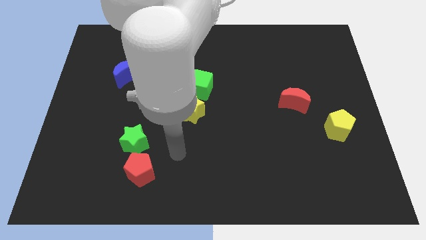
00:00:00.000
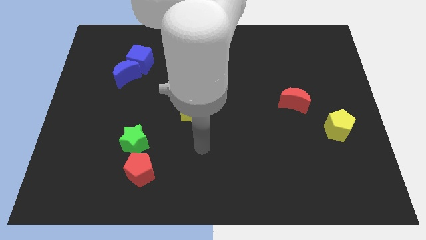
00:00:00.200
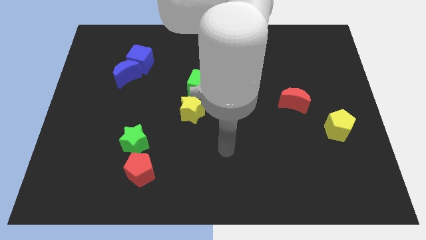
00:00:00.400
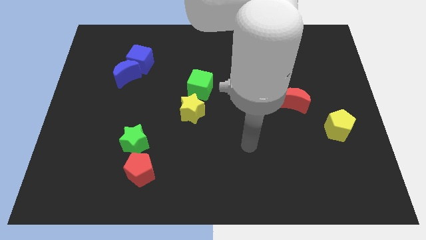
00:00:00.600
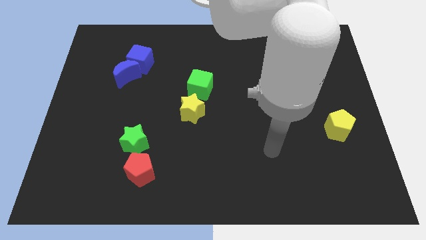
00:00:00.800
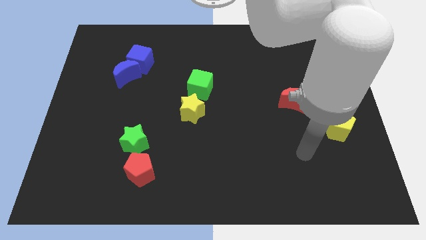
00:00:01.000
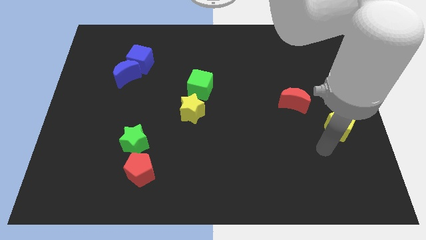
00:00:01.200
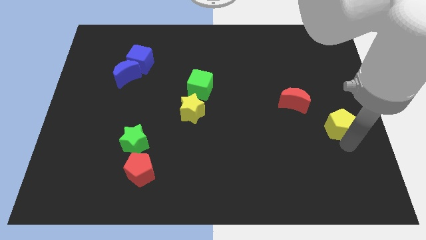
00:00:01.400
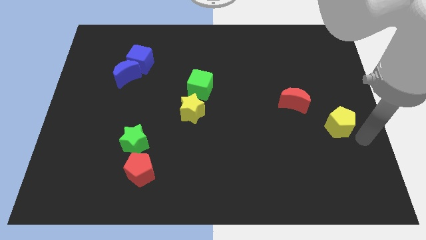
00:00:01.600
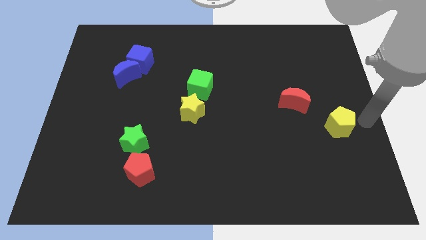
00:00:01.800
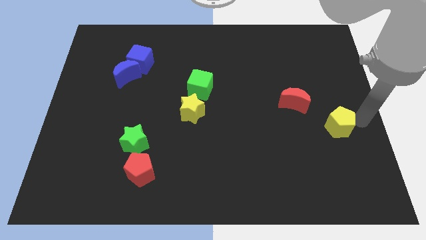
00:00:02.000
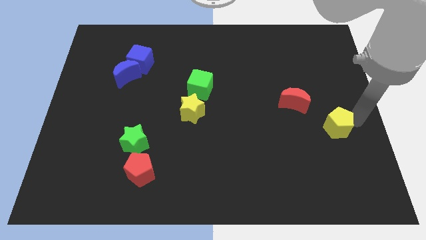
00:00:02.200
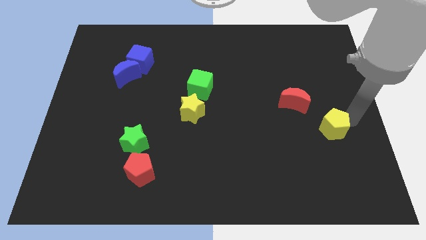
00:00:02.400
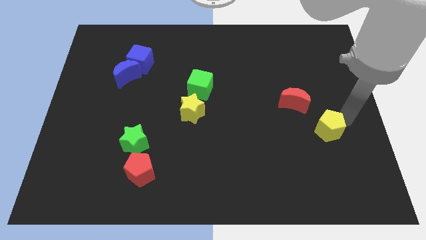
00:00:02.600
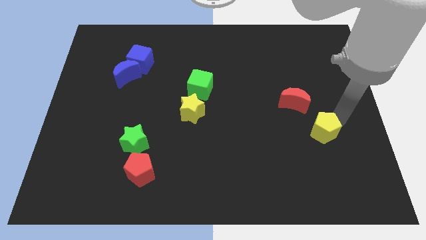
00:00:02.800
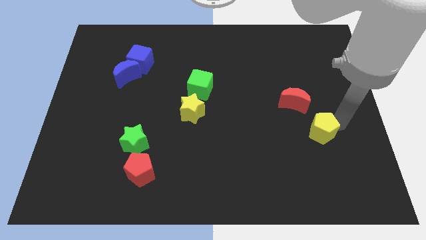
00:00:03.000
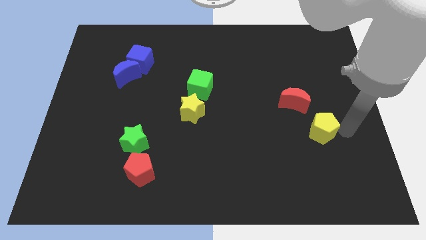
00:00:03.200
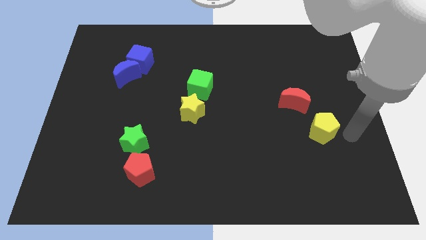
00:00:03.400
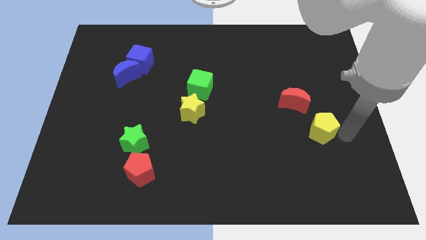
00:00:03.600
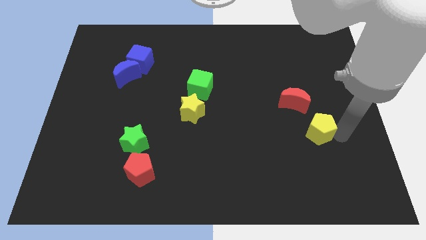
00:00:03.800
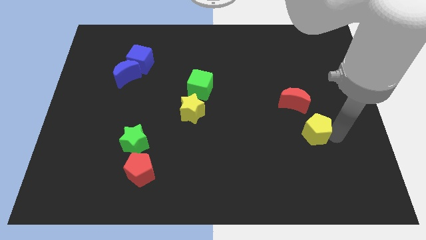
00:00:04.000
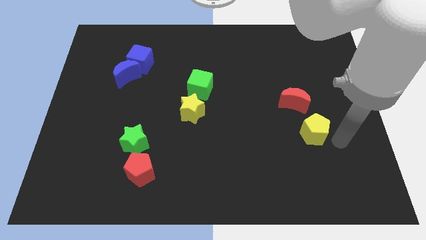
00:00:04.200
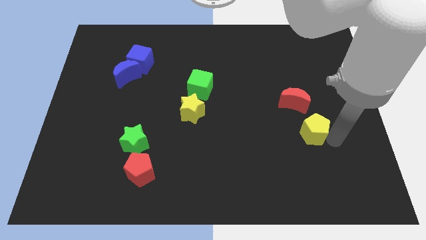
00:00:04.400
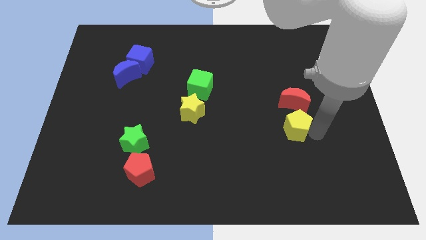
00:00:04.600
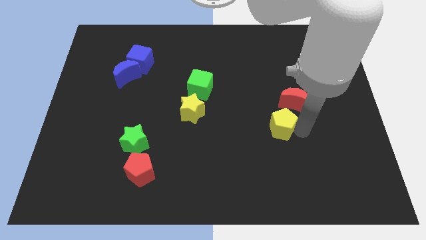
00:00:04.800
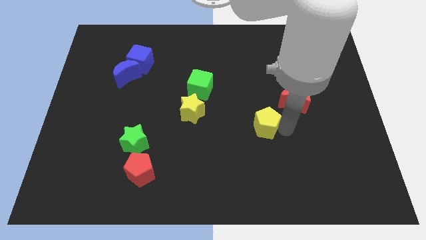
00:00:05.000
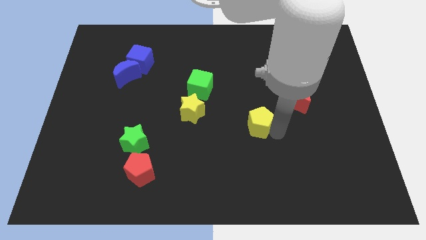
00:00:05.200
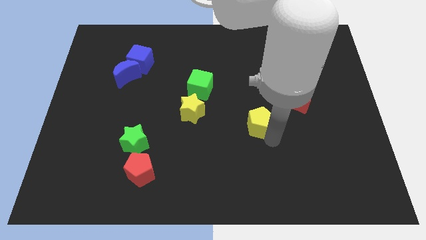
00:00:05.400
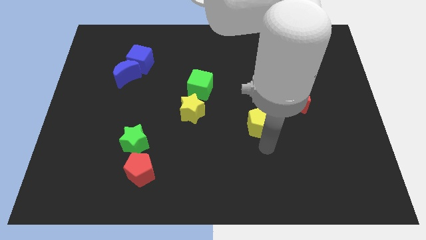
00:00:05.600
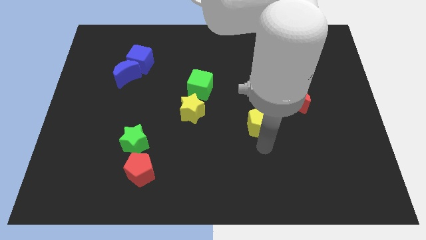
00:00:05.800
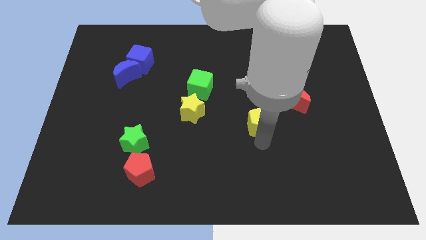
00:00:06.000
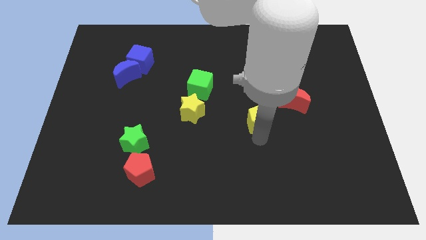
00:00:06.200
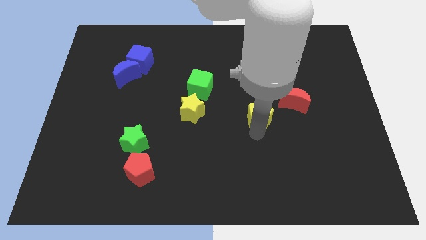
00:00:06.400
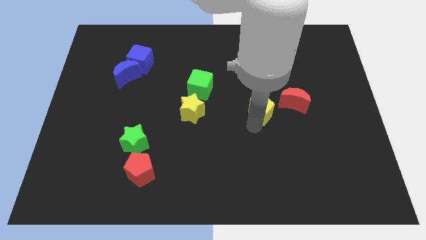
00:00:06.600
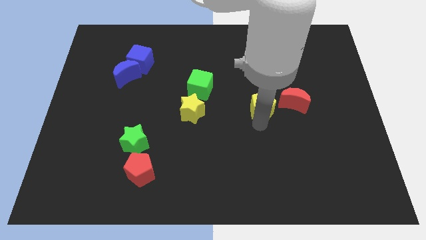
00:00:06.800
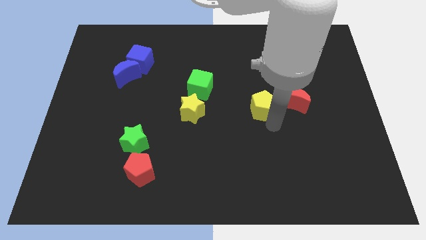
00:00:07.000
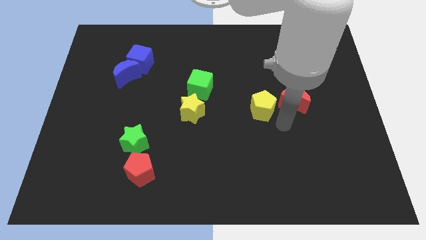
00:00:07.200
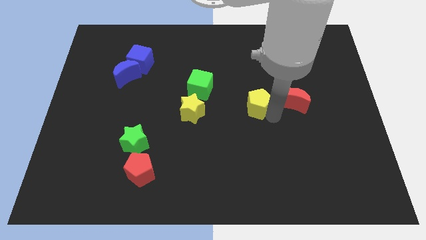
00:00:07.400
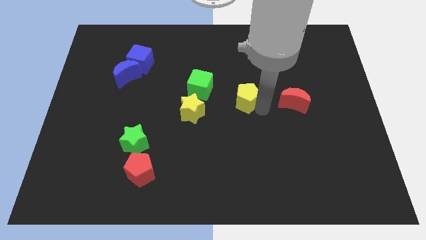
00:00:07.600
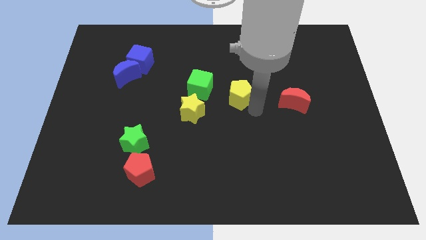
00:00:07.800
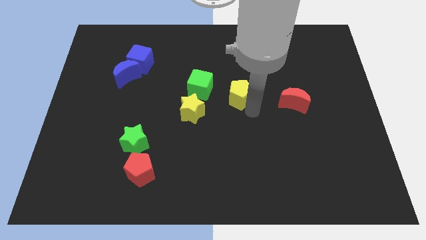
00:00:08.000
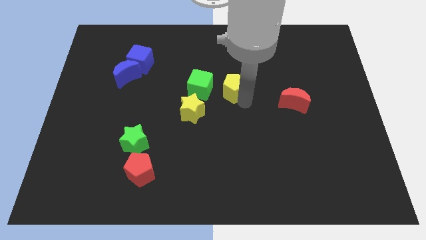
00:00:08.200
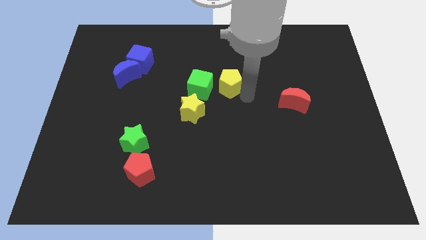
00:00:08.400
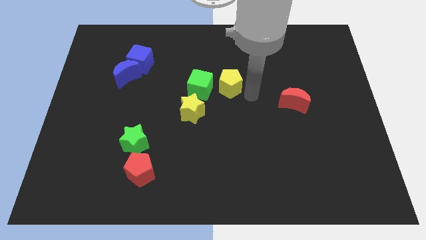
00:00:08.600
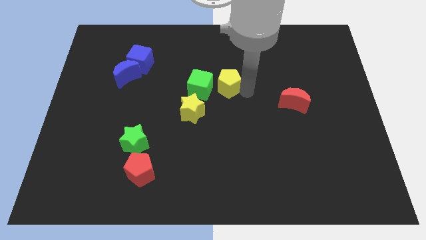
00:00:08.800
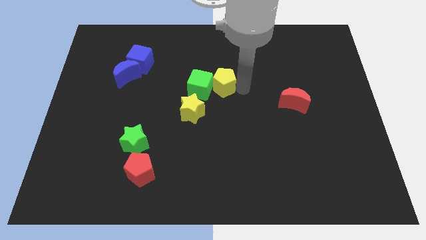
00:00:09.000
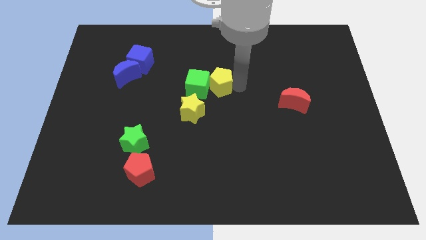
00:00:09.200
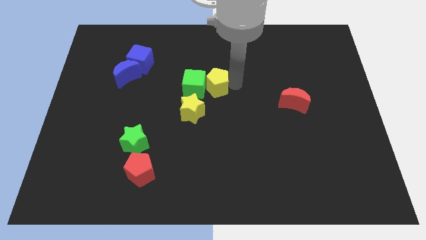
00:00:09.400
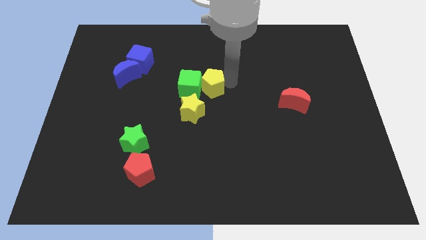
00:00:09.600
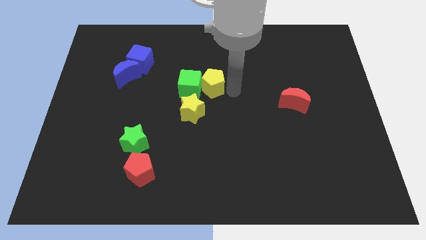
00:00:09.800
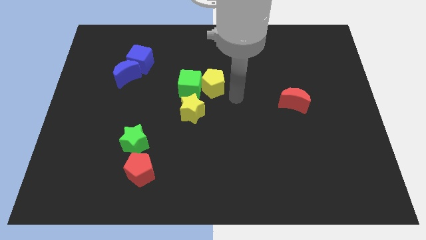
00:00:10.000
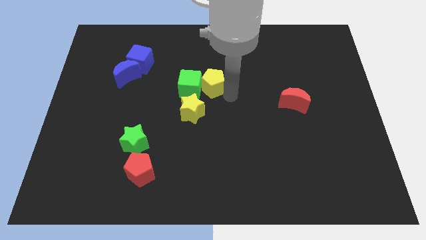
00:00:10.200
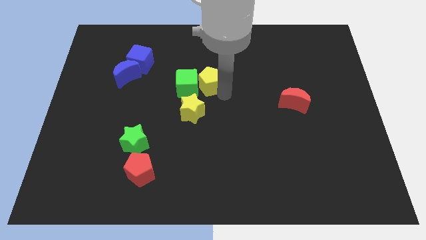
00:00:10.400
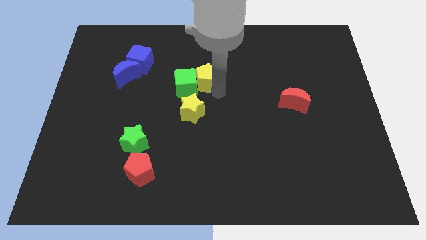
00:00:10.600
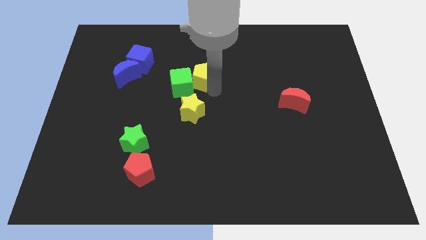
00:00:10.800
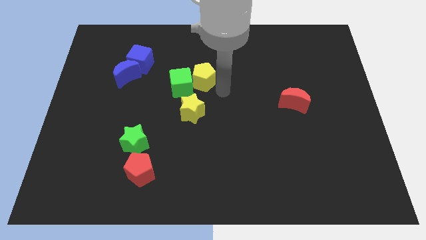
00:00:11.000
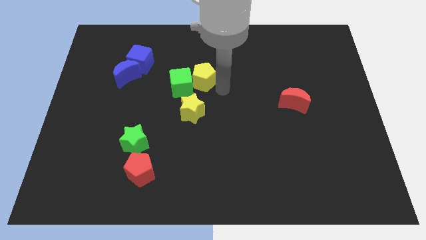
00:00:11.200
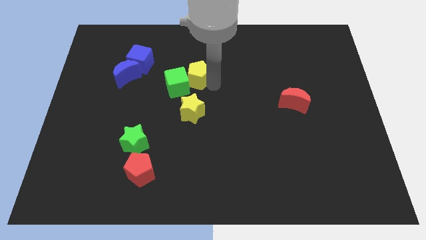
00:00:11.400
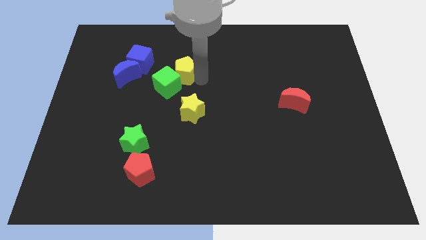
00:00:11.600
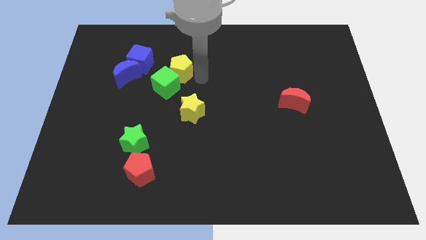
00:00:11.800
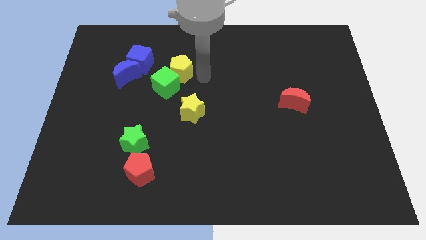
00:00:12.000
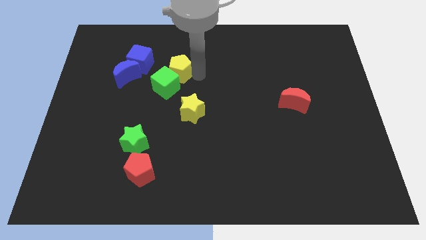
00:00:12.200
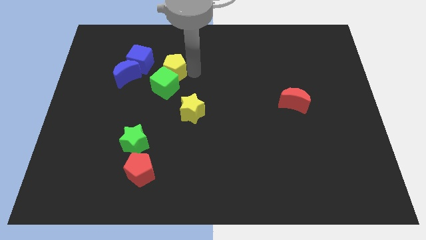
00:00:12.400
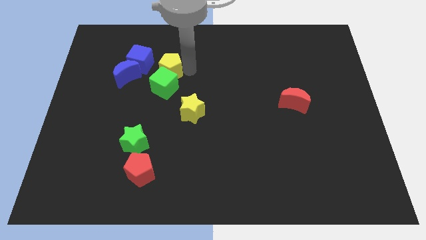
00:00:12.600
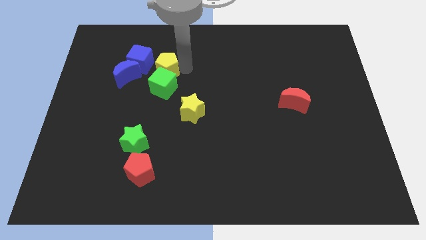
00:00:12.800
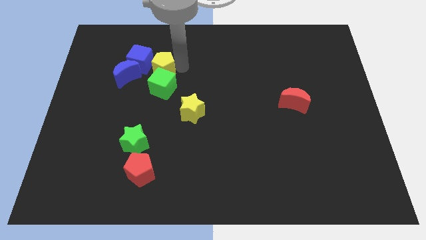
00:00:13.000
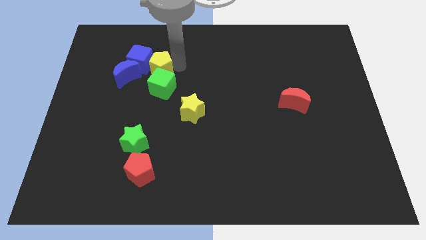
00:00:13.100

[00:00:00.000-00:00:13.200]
move the yellow pentagon to the blue cube

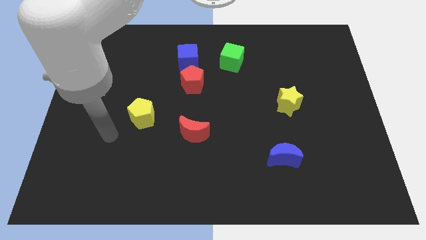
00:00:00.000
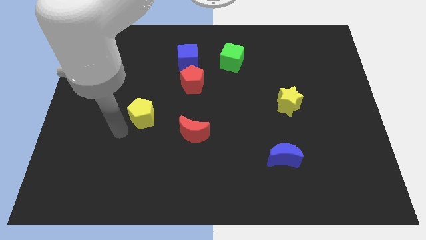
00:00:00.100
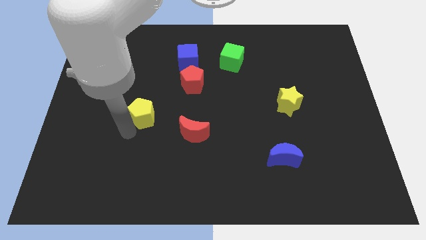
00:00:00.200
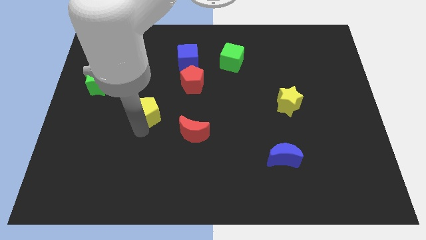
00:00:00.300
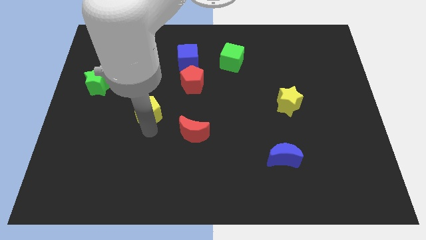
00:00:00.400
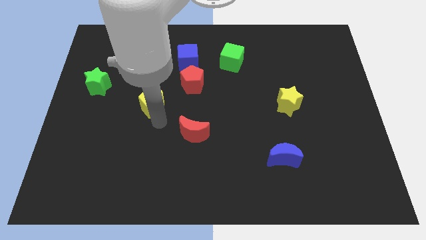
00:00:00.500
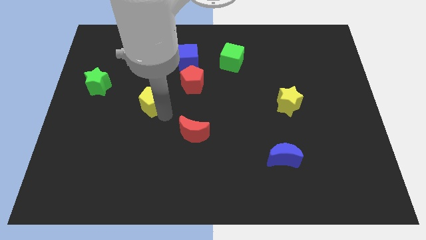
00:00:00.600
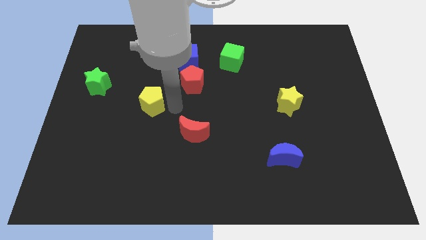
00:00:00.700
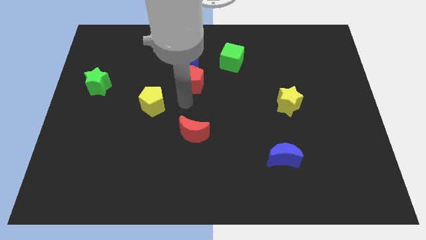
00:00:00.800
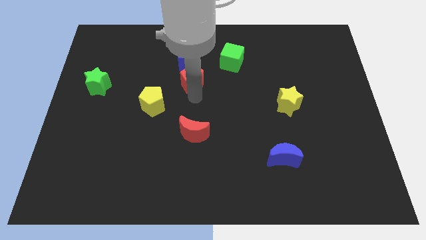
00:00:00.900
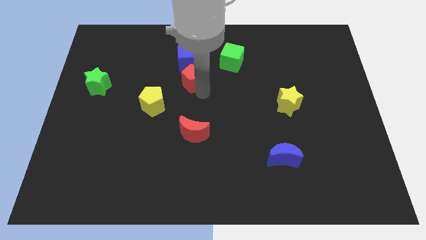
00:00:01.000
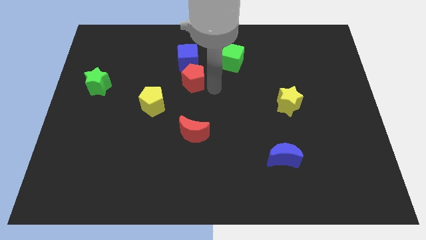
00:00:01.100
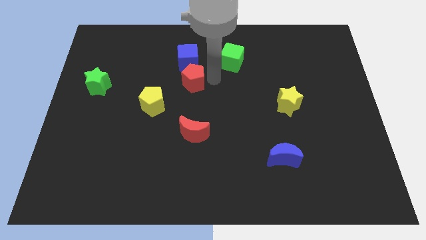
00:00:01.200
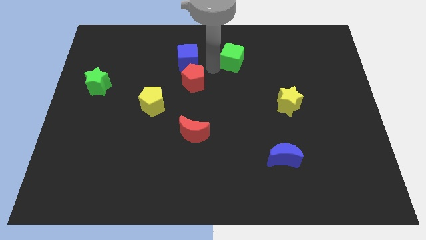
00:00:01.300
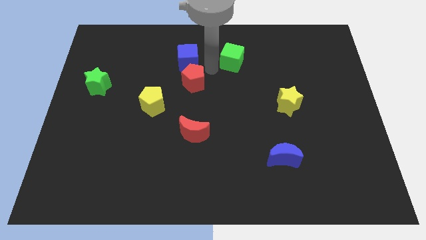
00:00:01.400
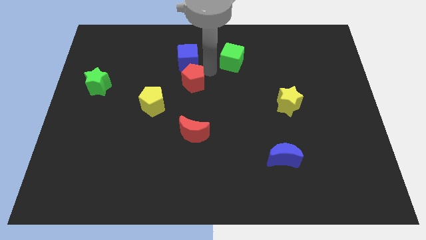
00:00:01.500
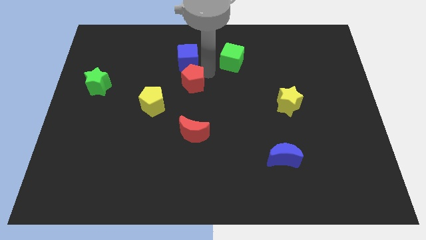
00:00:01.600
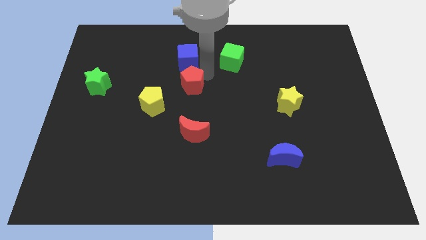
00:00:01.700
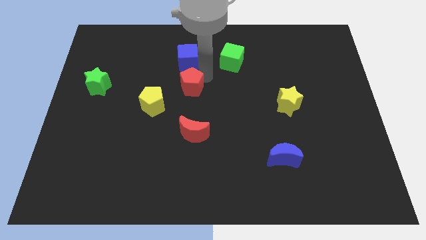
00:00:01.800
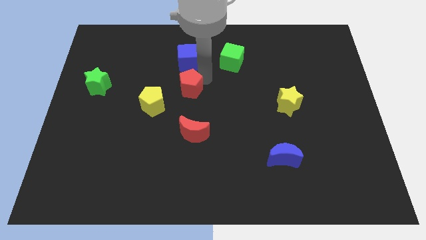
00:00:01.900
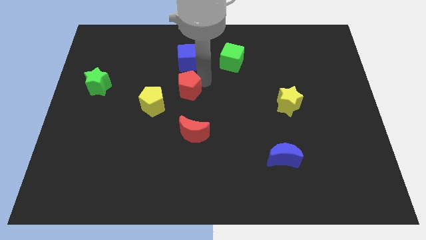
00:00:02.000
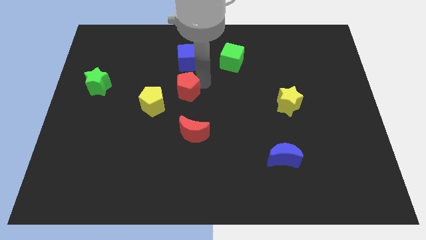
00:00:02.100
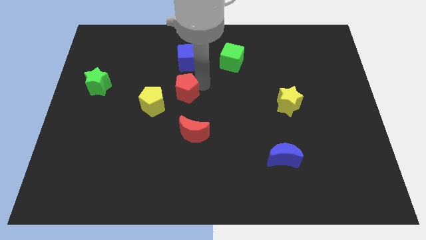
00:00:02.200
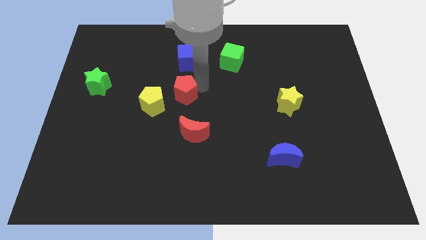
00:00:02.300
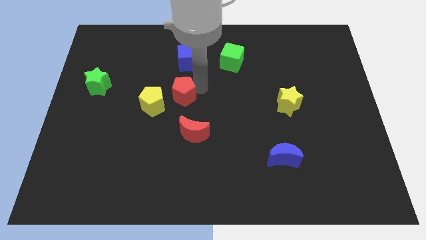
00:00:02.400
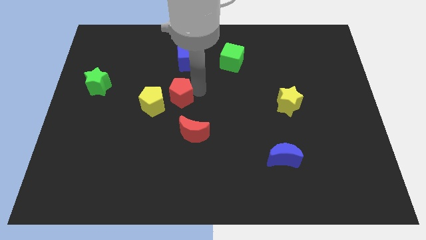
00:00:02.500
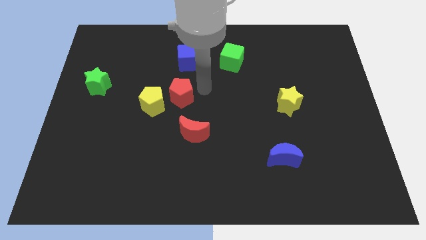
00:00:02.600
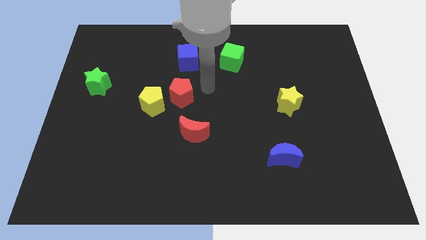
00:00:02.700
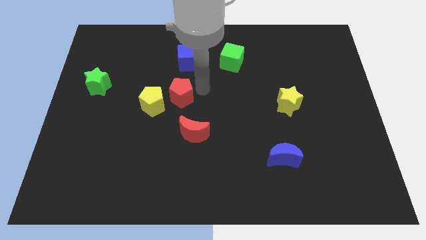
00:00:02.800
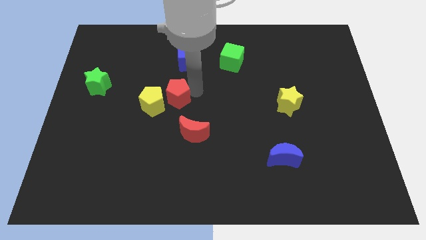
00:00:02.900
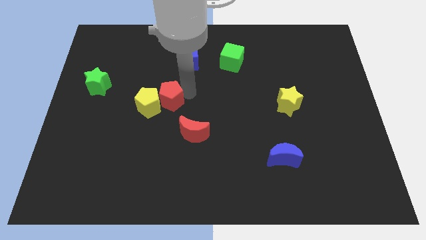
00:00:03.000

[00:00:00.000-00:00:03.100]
put the red pentagon towards the yellow pentagon
